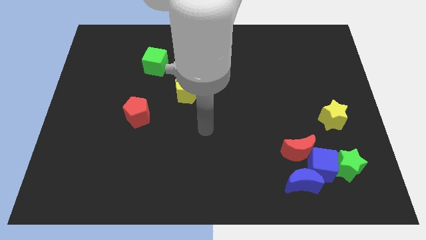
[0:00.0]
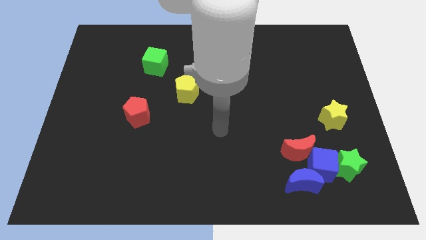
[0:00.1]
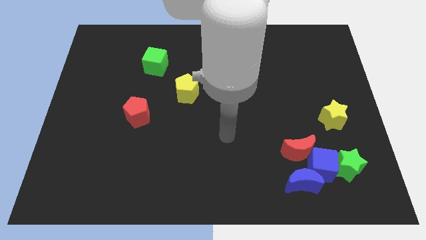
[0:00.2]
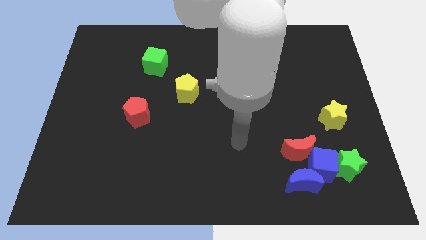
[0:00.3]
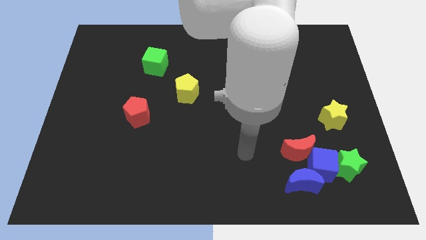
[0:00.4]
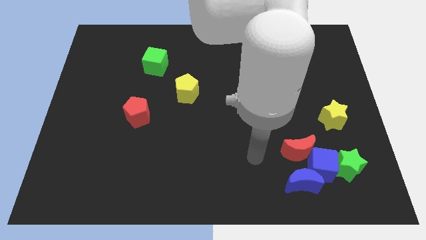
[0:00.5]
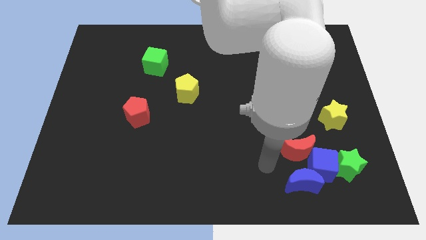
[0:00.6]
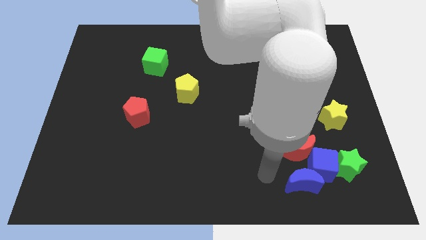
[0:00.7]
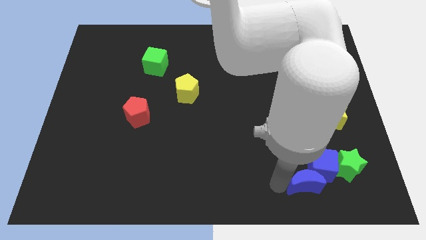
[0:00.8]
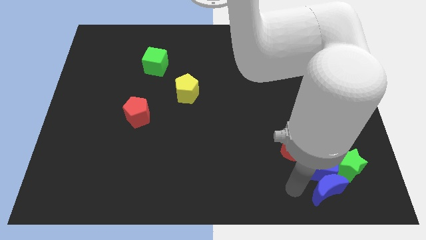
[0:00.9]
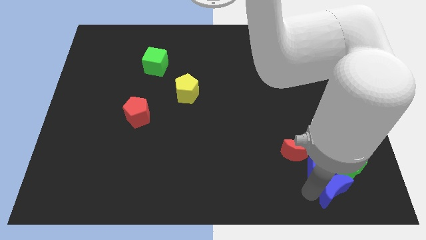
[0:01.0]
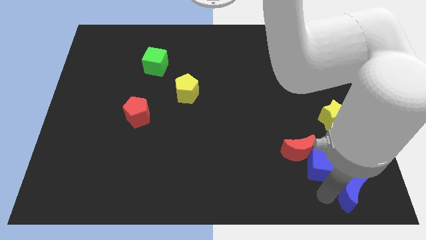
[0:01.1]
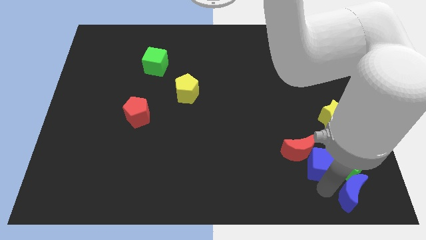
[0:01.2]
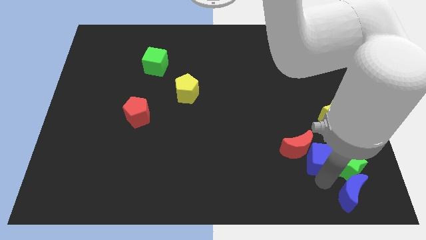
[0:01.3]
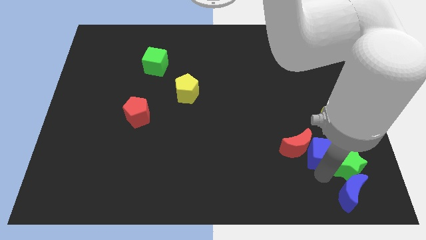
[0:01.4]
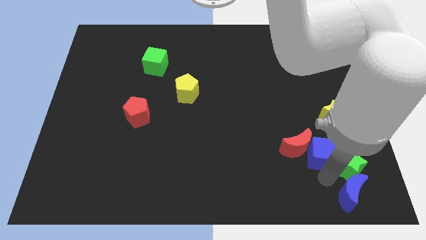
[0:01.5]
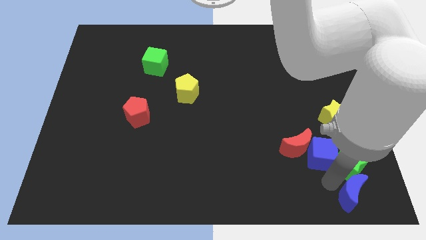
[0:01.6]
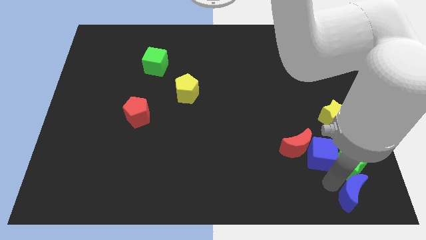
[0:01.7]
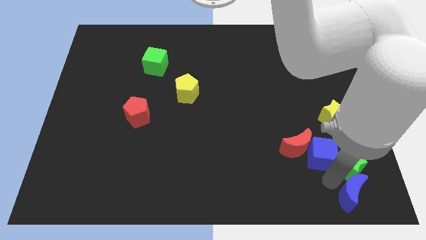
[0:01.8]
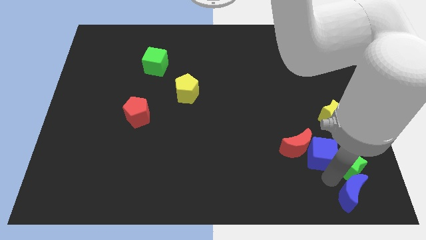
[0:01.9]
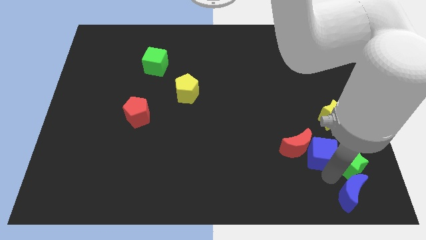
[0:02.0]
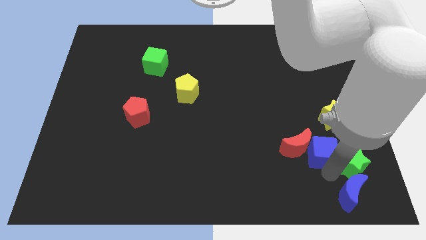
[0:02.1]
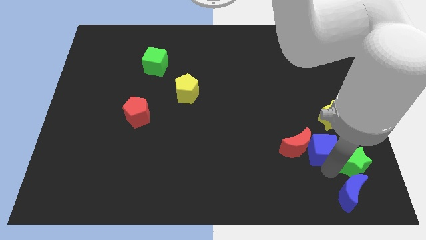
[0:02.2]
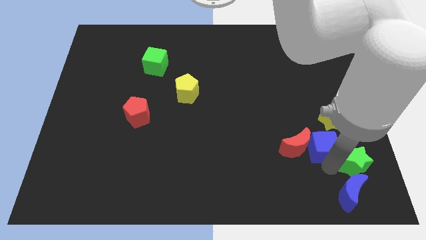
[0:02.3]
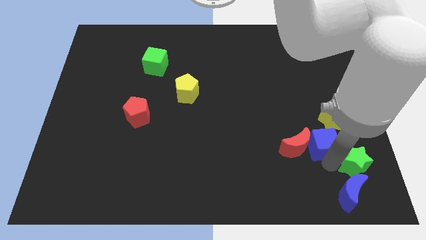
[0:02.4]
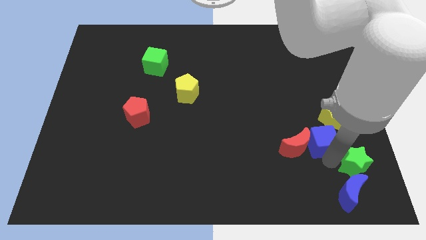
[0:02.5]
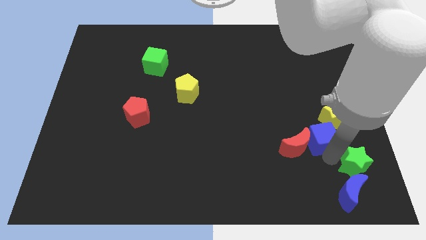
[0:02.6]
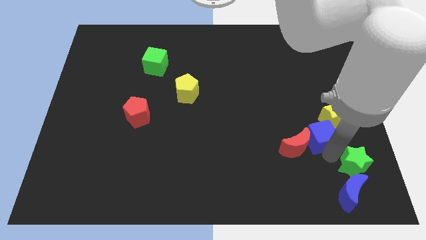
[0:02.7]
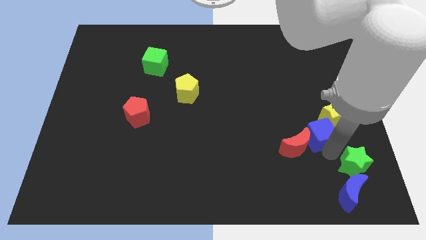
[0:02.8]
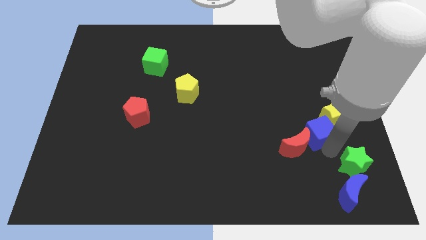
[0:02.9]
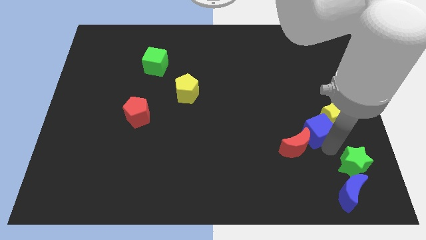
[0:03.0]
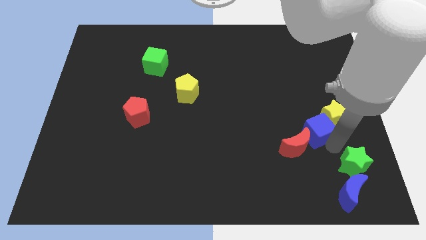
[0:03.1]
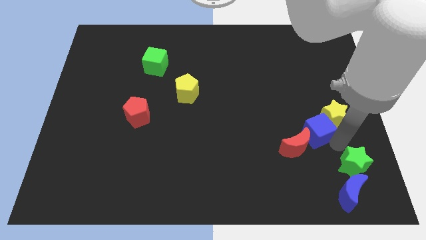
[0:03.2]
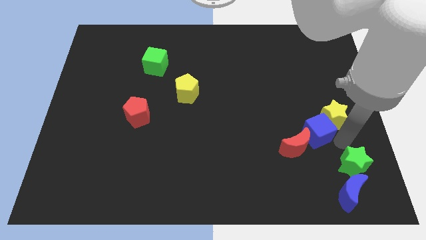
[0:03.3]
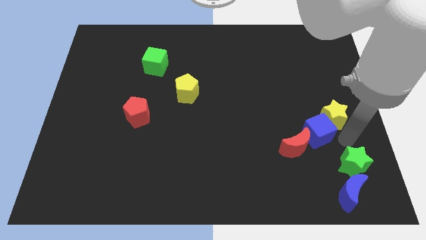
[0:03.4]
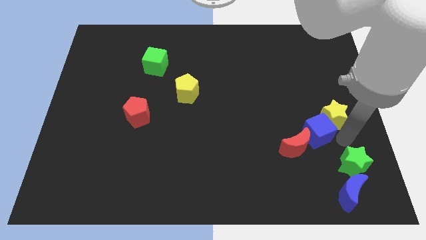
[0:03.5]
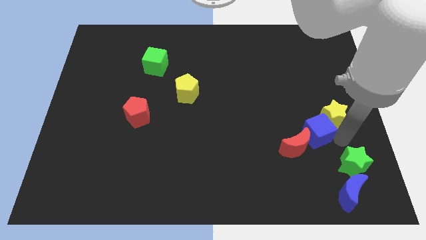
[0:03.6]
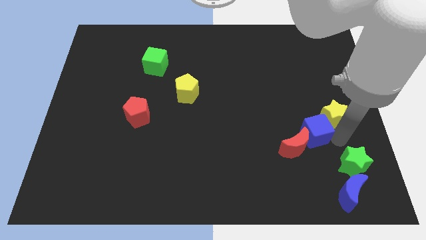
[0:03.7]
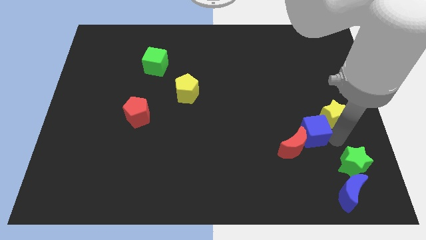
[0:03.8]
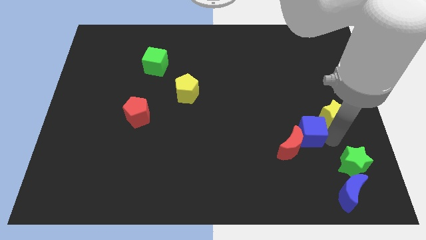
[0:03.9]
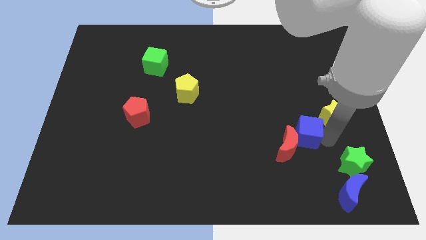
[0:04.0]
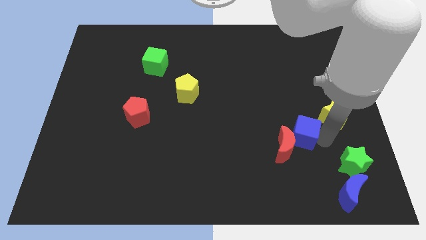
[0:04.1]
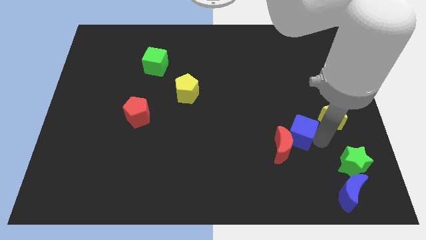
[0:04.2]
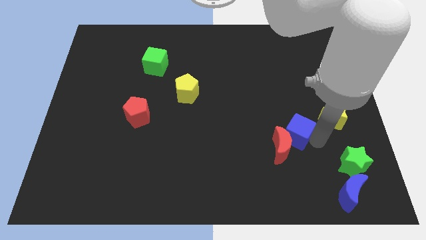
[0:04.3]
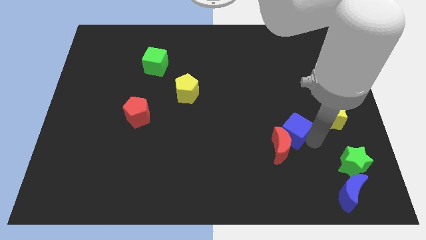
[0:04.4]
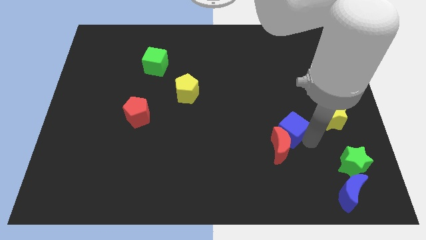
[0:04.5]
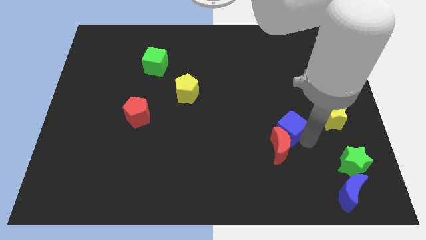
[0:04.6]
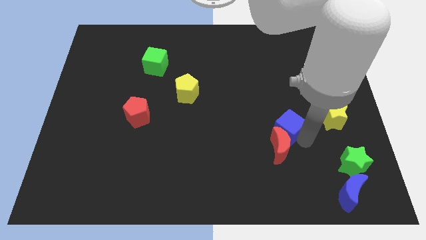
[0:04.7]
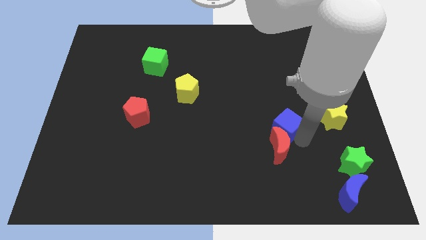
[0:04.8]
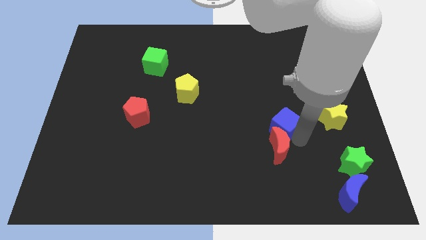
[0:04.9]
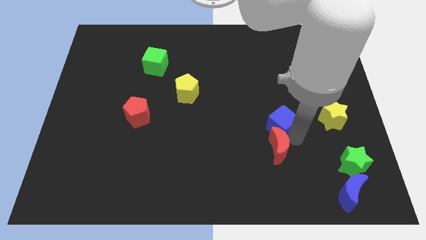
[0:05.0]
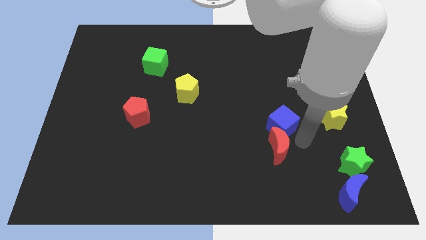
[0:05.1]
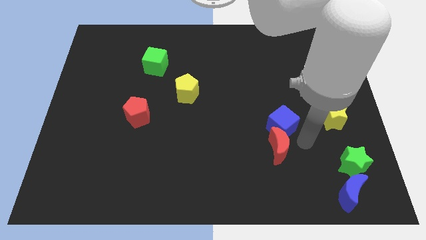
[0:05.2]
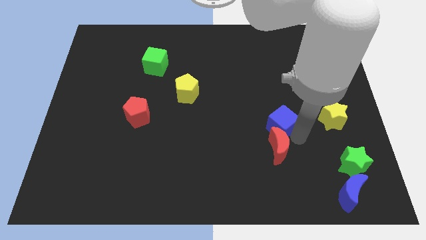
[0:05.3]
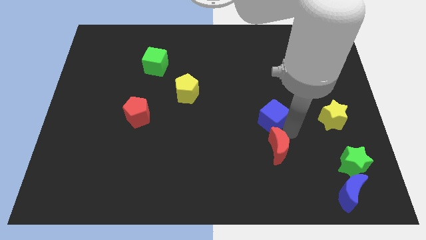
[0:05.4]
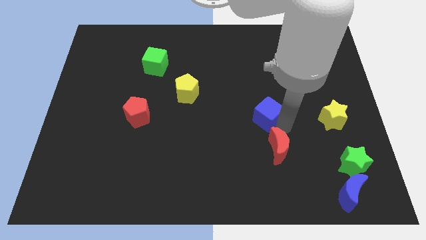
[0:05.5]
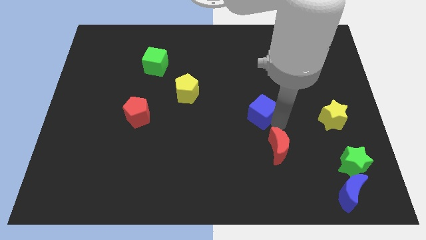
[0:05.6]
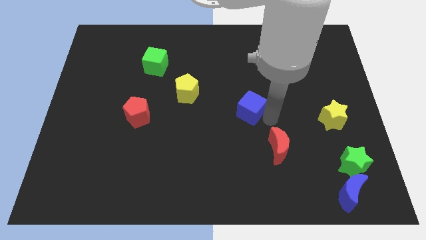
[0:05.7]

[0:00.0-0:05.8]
slide the blue cube up and then to the left

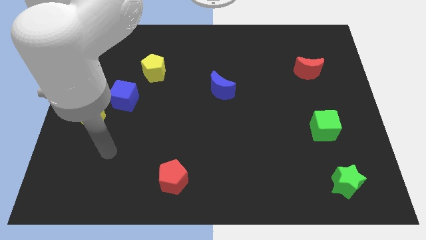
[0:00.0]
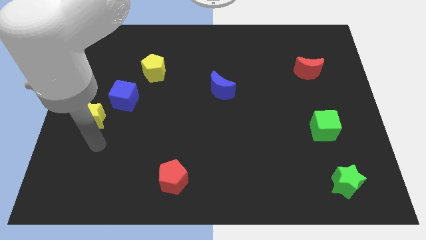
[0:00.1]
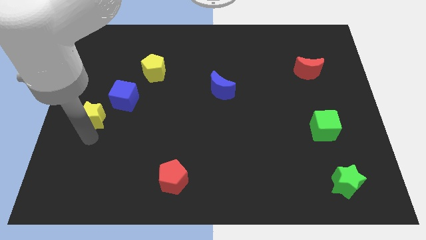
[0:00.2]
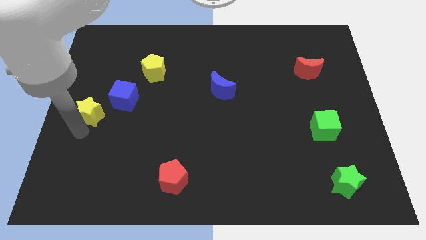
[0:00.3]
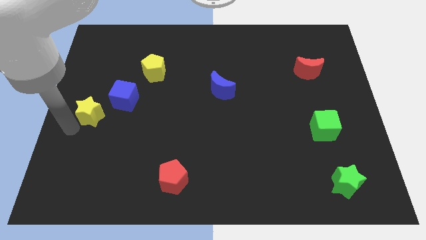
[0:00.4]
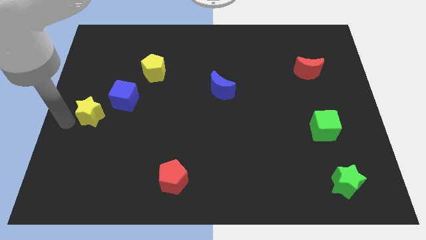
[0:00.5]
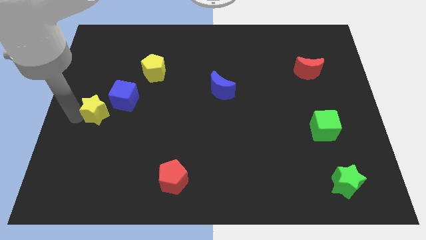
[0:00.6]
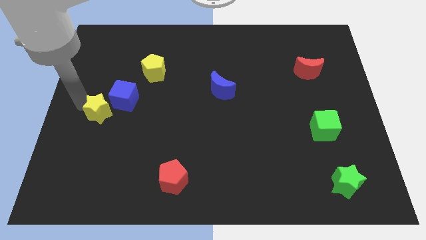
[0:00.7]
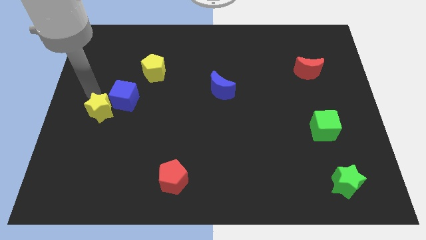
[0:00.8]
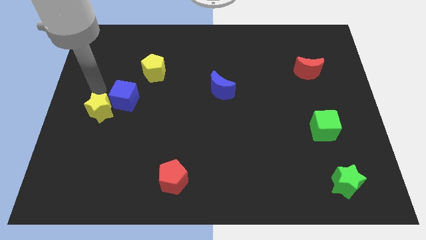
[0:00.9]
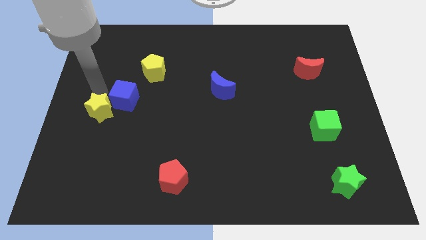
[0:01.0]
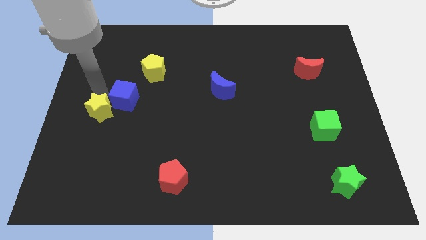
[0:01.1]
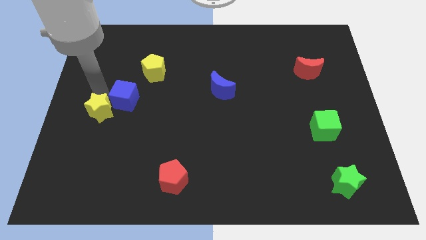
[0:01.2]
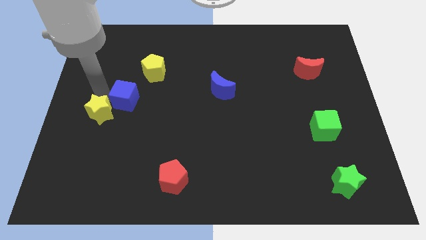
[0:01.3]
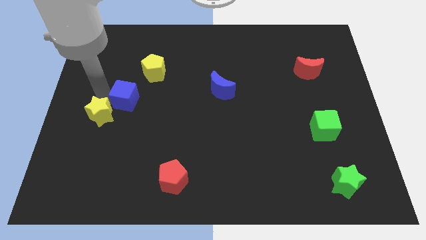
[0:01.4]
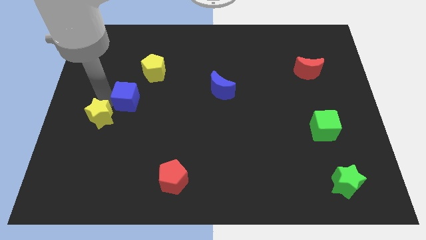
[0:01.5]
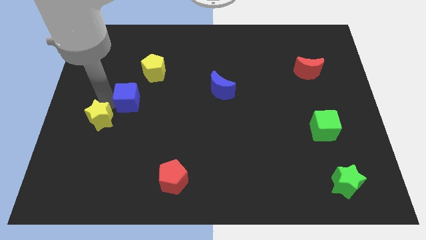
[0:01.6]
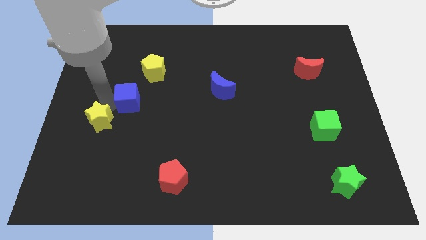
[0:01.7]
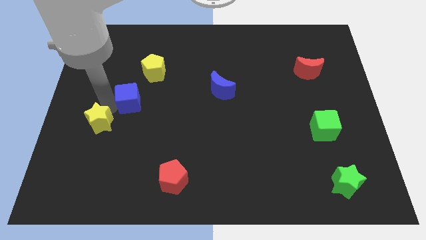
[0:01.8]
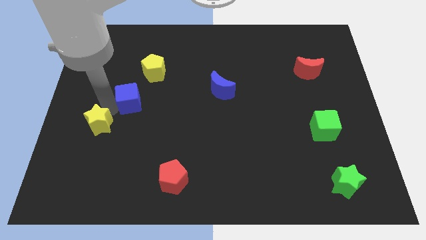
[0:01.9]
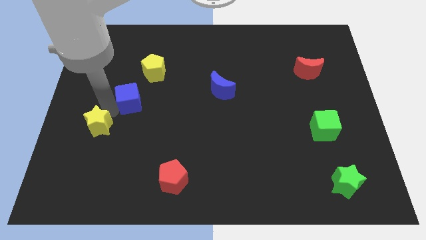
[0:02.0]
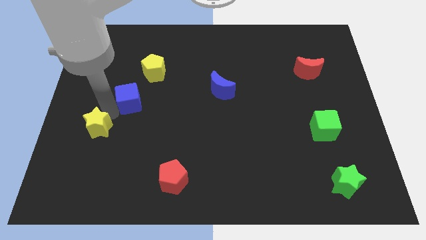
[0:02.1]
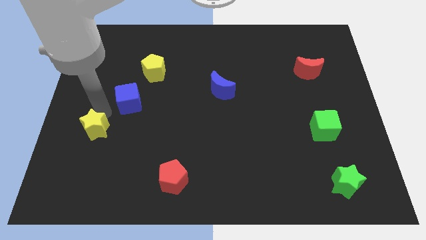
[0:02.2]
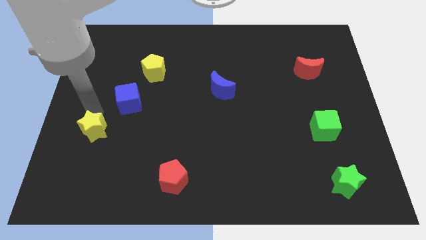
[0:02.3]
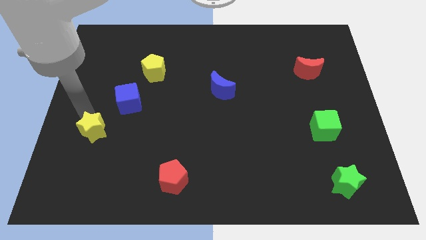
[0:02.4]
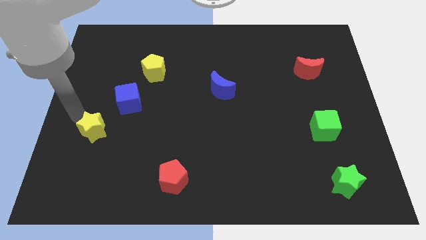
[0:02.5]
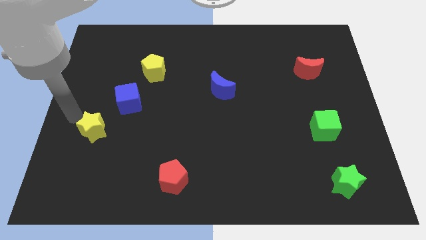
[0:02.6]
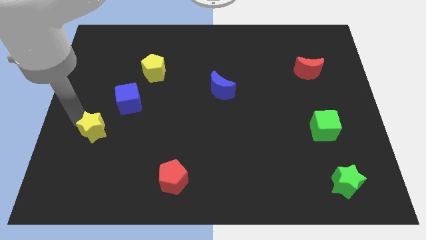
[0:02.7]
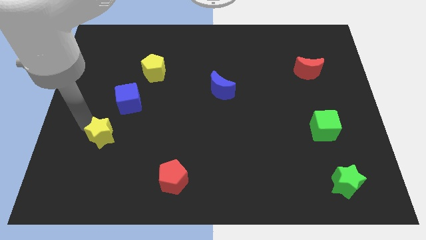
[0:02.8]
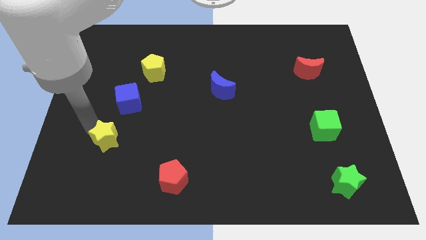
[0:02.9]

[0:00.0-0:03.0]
push the yellow star somewhat down and to the right diagonally
